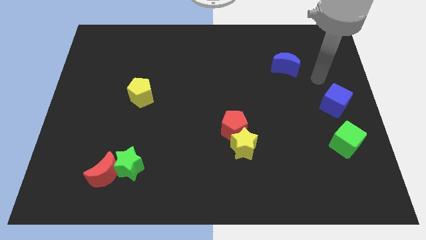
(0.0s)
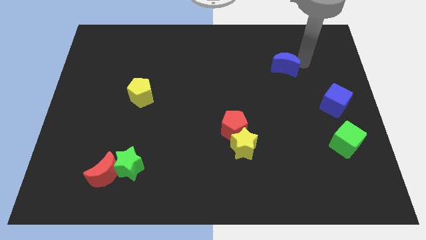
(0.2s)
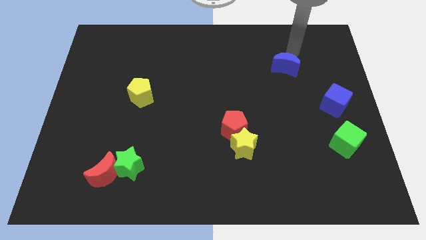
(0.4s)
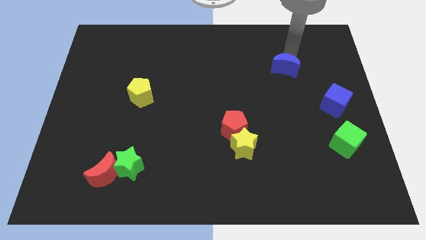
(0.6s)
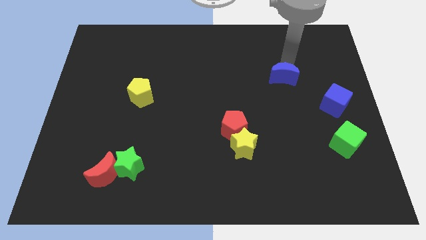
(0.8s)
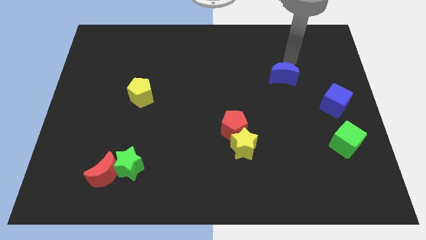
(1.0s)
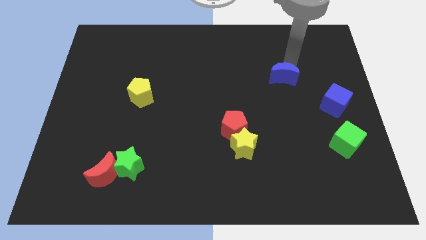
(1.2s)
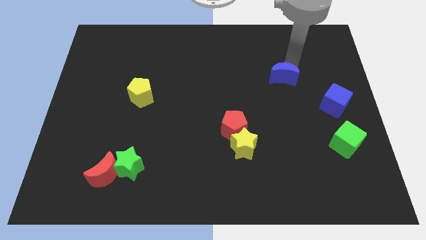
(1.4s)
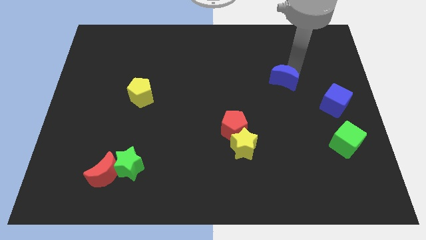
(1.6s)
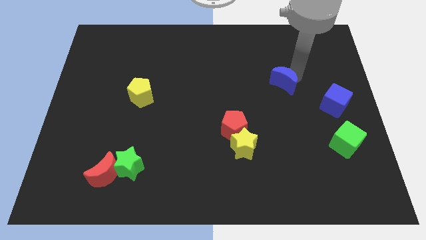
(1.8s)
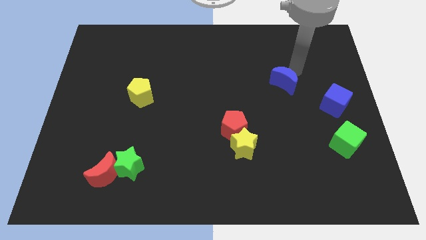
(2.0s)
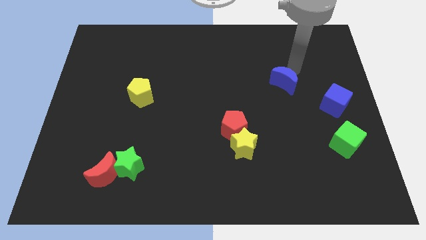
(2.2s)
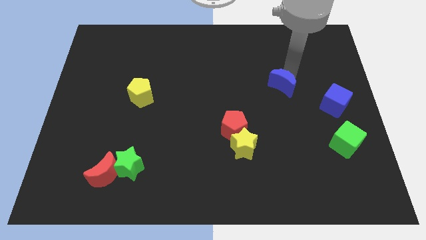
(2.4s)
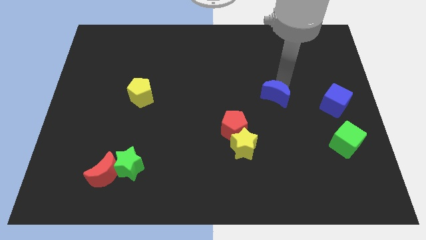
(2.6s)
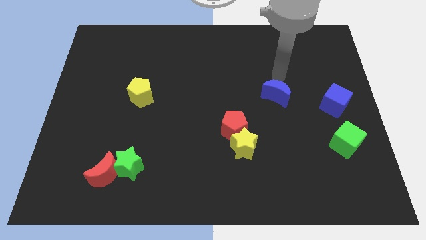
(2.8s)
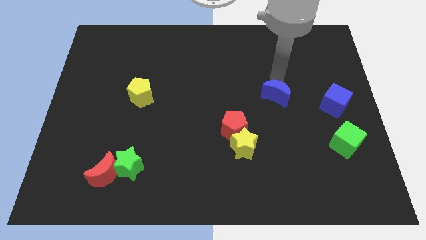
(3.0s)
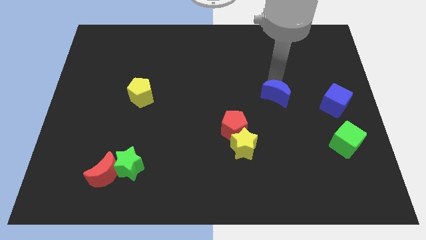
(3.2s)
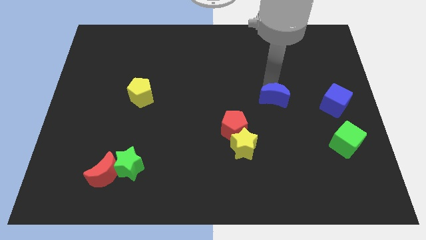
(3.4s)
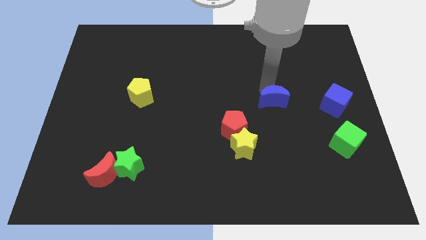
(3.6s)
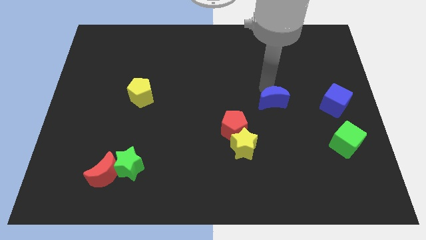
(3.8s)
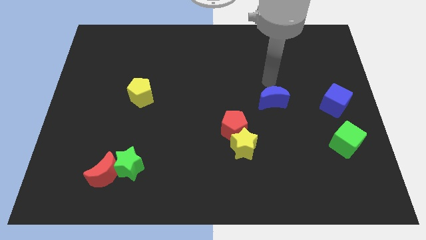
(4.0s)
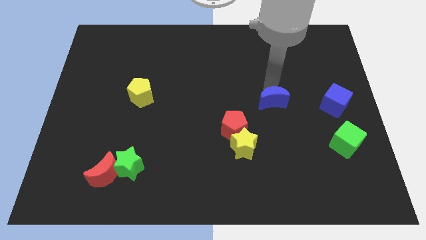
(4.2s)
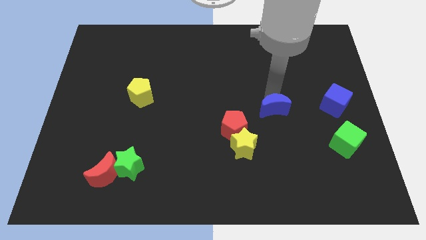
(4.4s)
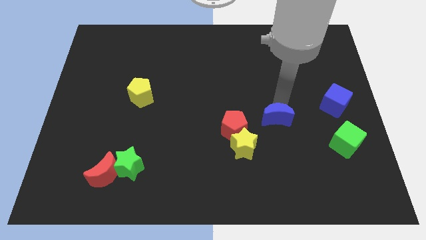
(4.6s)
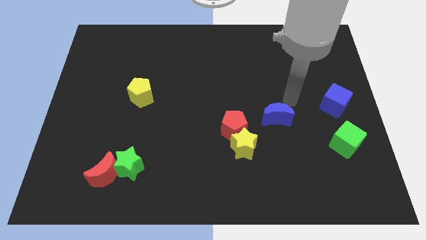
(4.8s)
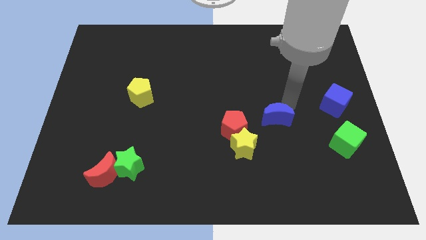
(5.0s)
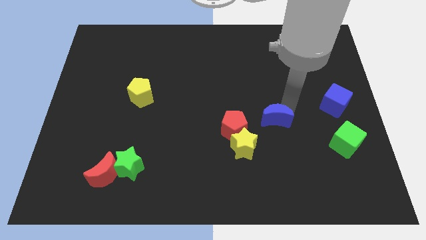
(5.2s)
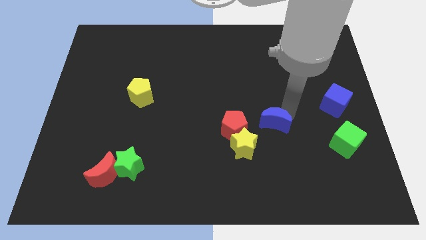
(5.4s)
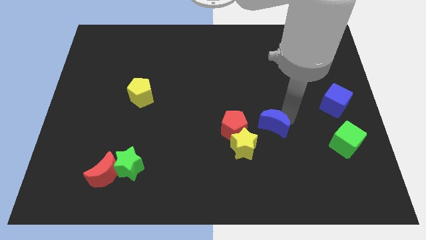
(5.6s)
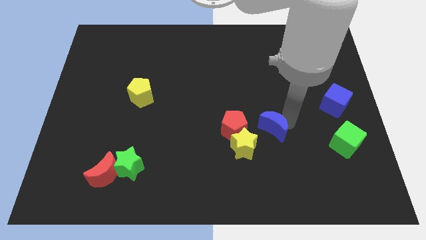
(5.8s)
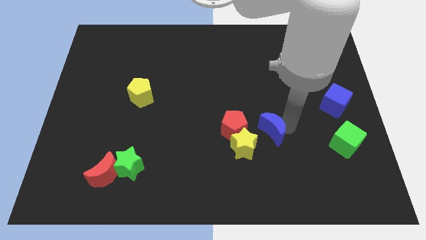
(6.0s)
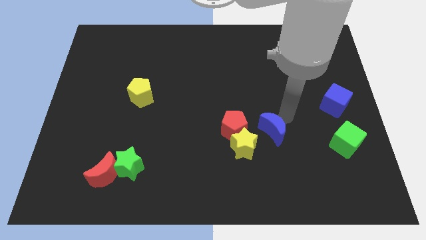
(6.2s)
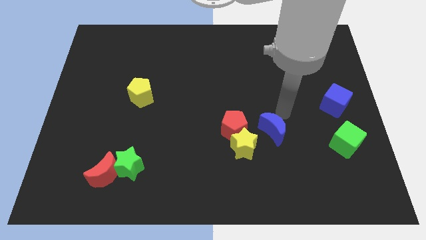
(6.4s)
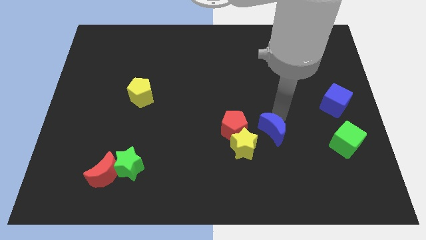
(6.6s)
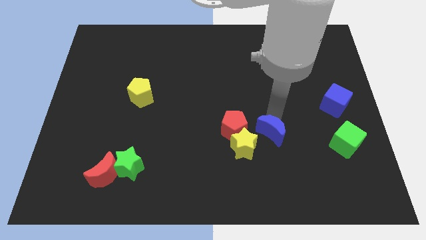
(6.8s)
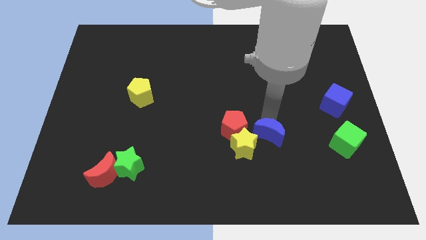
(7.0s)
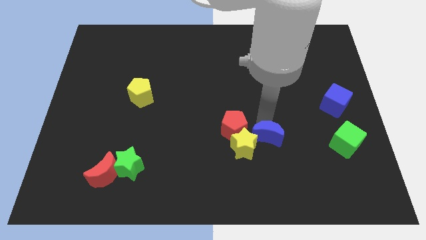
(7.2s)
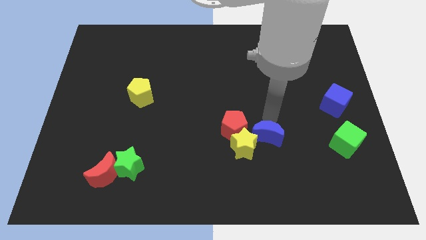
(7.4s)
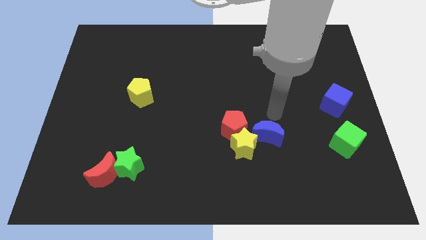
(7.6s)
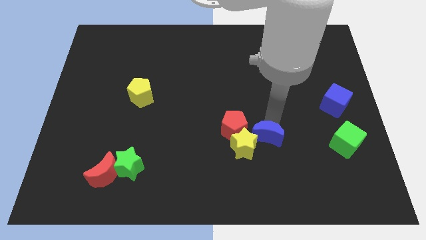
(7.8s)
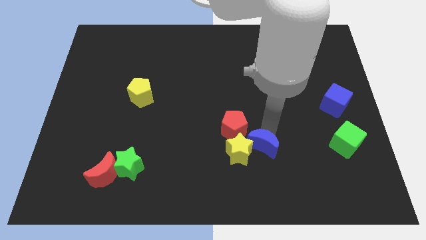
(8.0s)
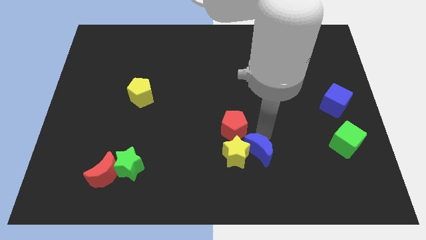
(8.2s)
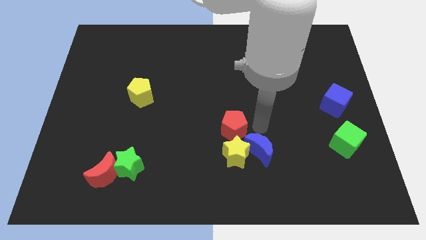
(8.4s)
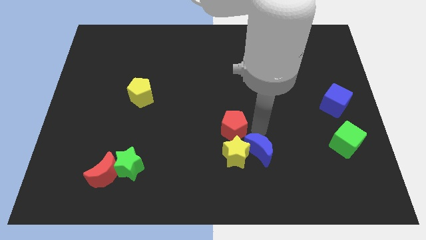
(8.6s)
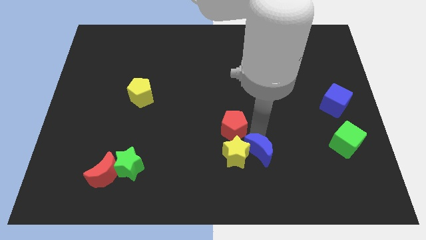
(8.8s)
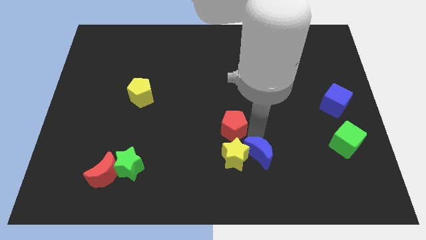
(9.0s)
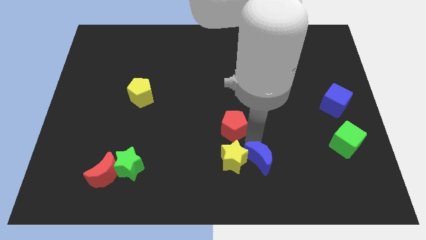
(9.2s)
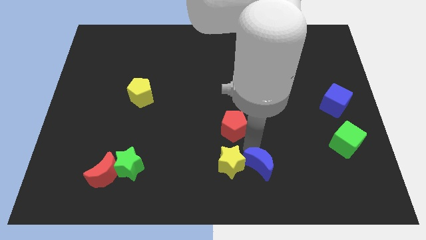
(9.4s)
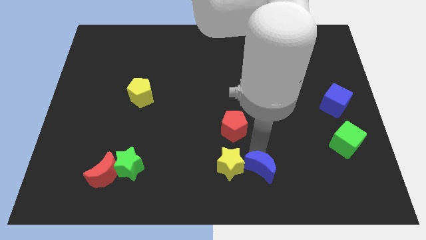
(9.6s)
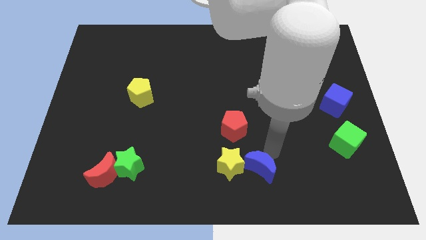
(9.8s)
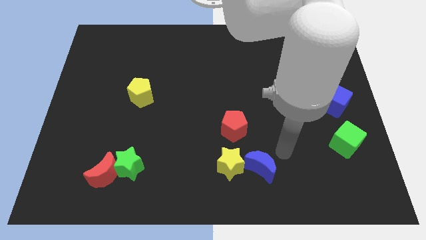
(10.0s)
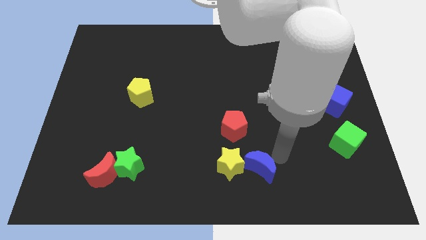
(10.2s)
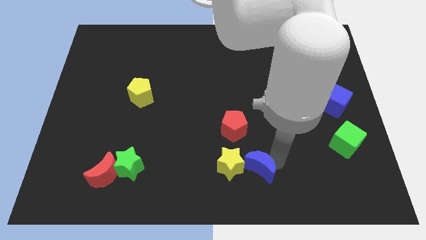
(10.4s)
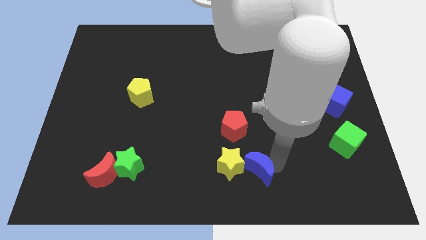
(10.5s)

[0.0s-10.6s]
push the blue moon to the bottom side

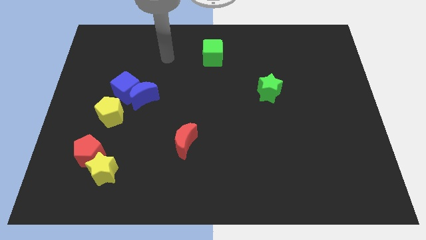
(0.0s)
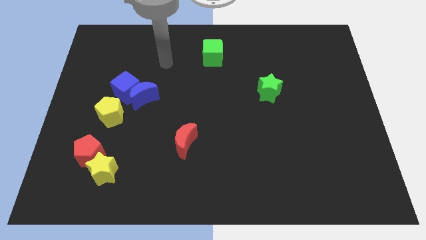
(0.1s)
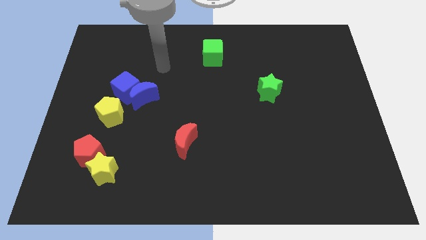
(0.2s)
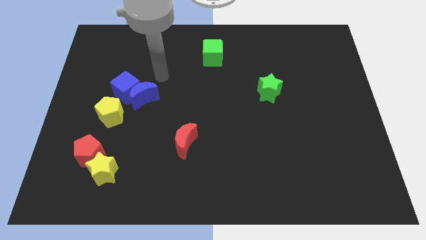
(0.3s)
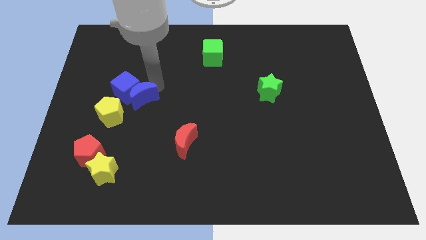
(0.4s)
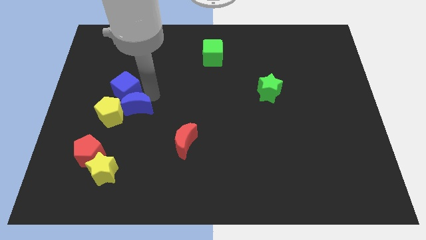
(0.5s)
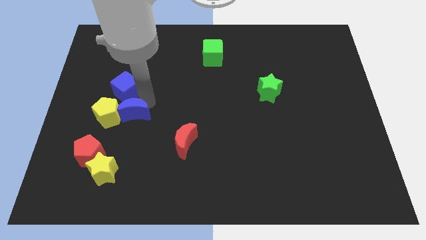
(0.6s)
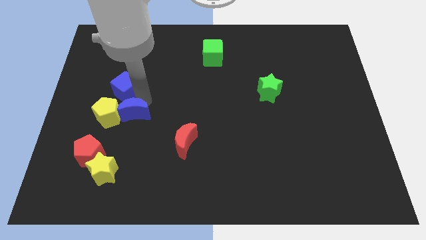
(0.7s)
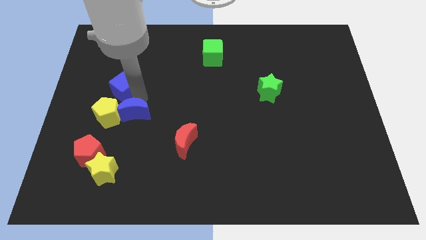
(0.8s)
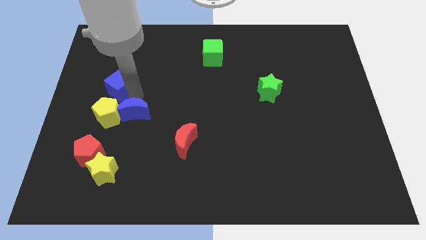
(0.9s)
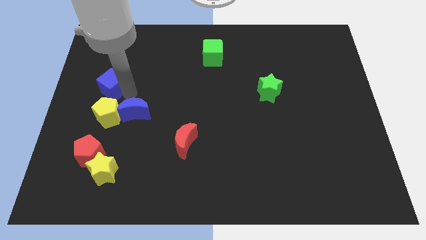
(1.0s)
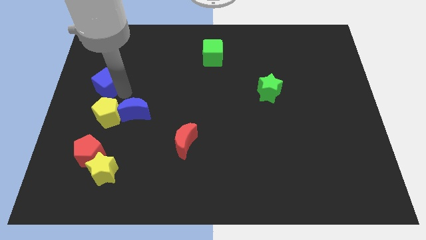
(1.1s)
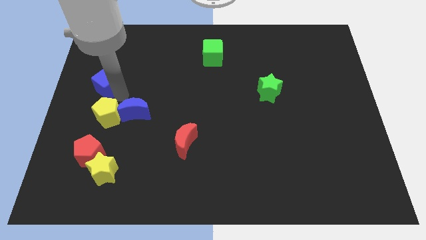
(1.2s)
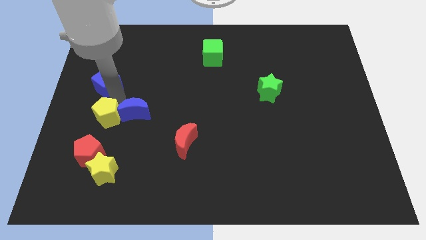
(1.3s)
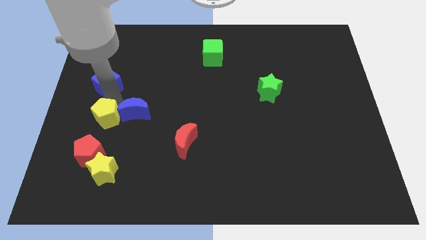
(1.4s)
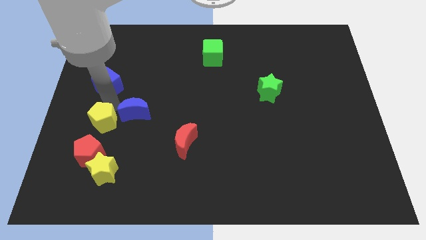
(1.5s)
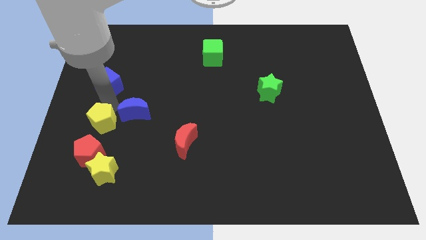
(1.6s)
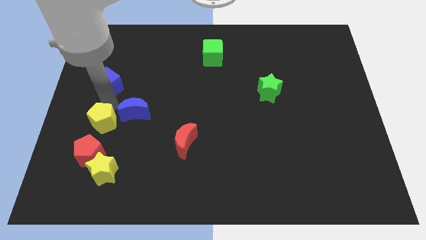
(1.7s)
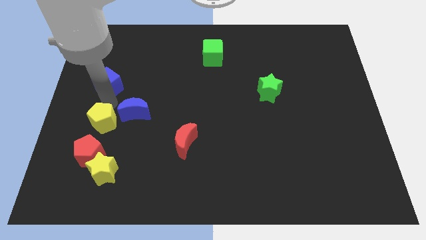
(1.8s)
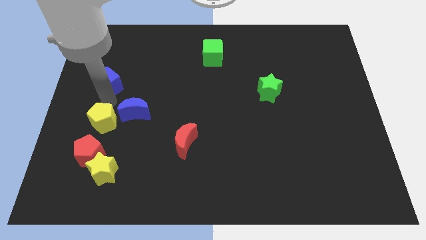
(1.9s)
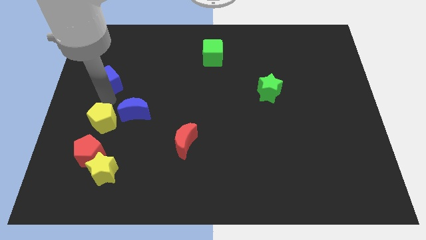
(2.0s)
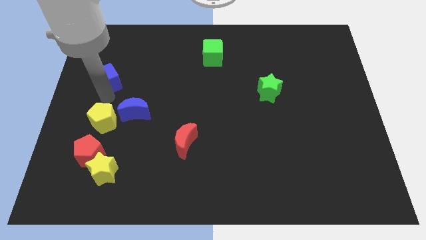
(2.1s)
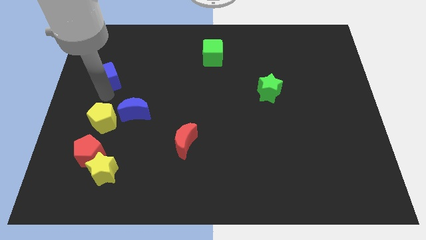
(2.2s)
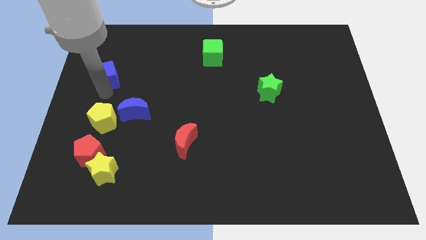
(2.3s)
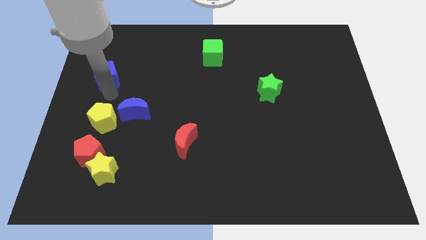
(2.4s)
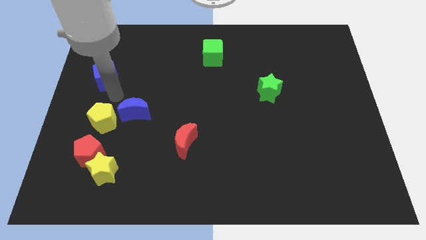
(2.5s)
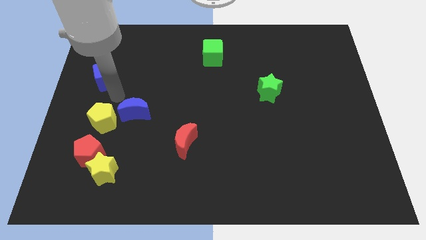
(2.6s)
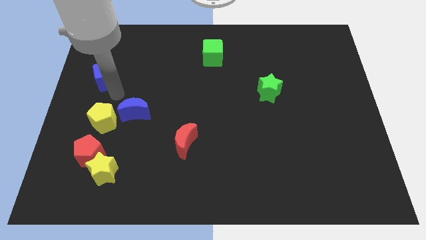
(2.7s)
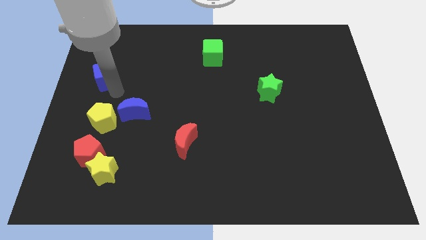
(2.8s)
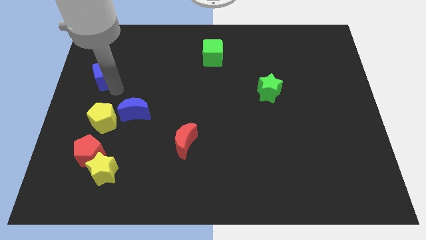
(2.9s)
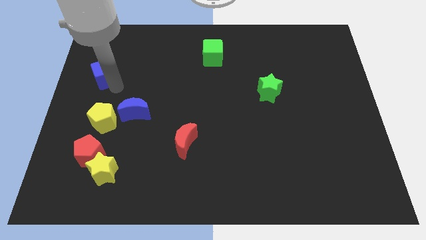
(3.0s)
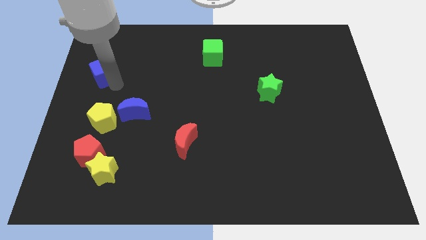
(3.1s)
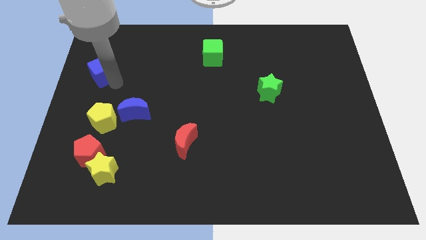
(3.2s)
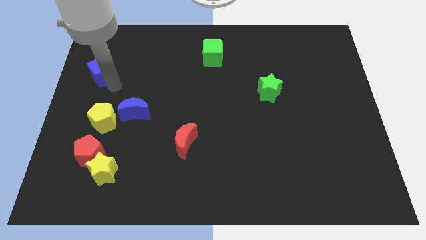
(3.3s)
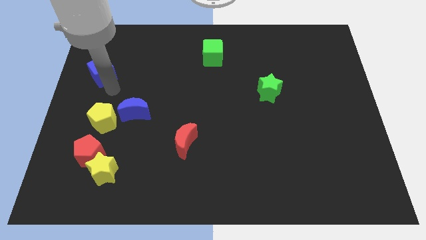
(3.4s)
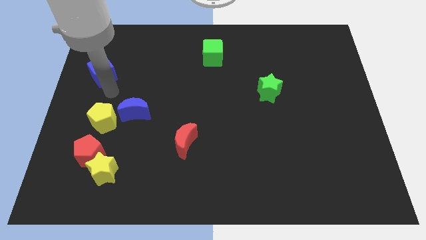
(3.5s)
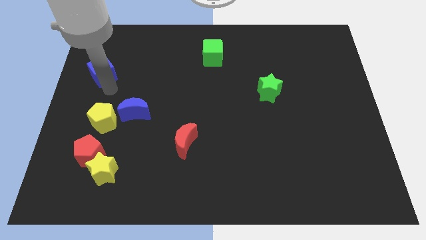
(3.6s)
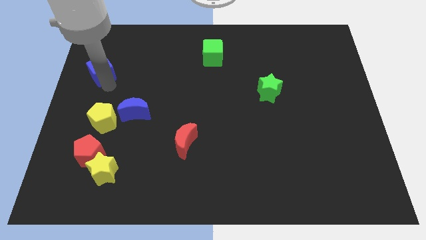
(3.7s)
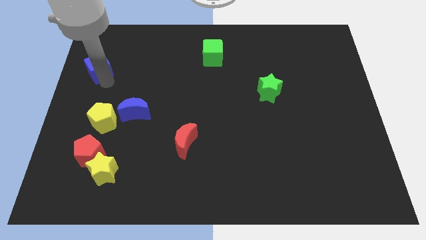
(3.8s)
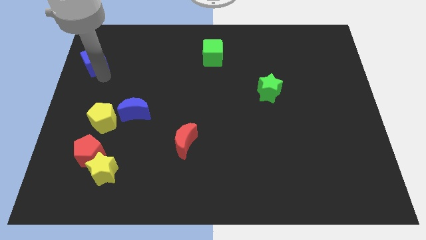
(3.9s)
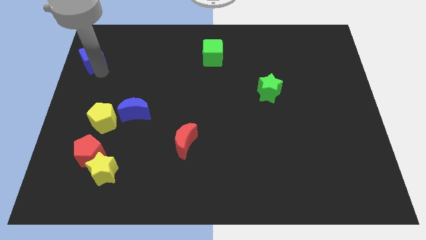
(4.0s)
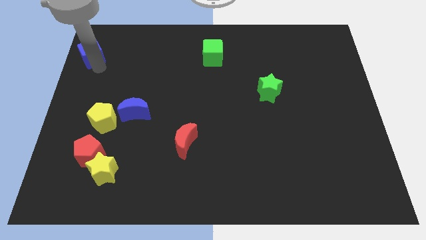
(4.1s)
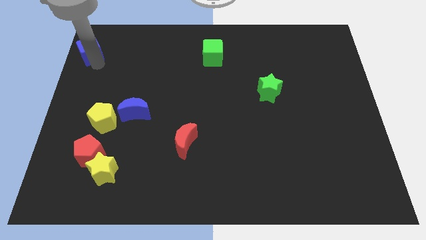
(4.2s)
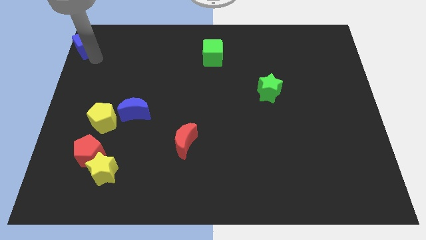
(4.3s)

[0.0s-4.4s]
move the blue cube to the top left corner
